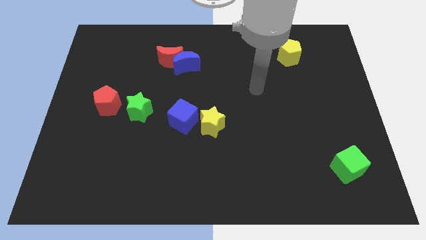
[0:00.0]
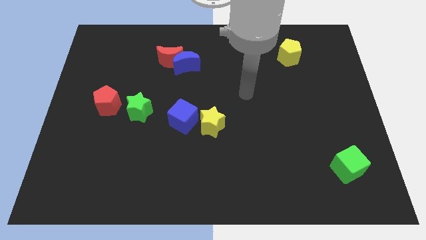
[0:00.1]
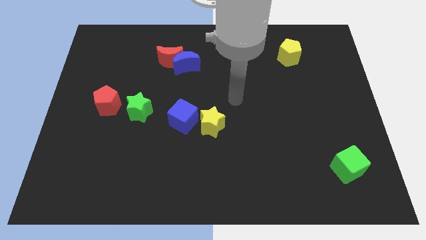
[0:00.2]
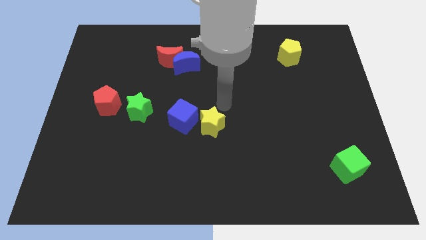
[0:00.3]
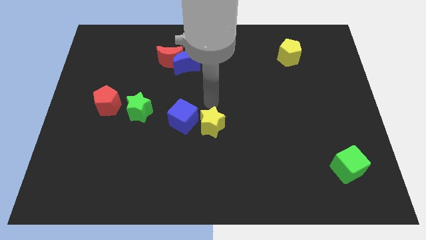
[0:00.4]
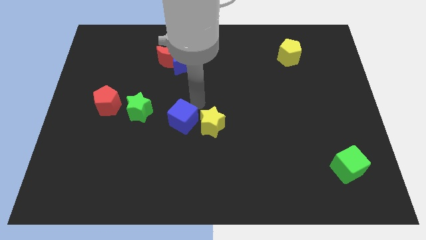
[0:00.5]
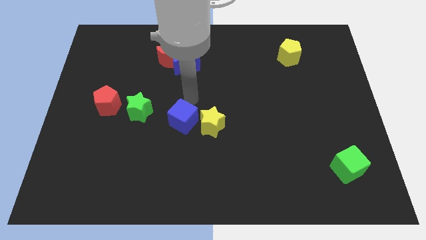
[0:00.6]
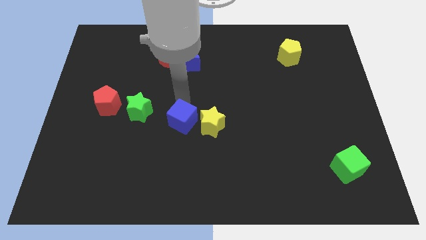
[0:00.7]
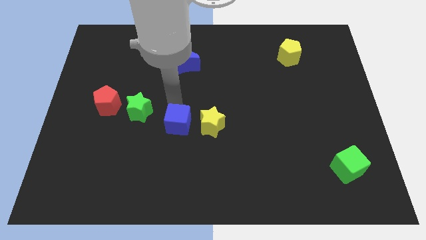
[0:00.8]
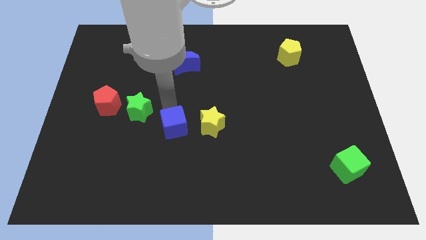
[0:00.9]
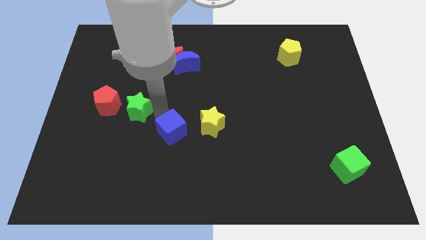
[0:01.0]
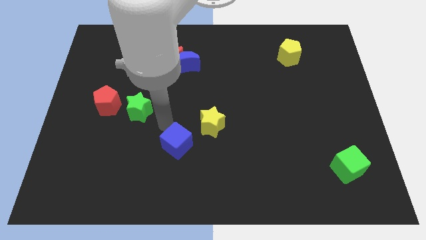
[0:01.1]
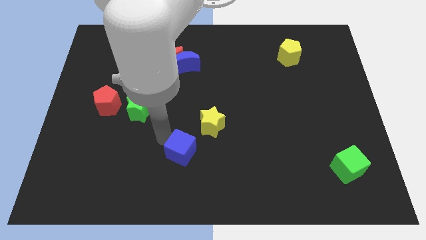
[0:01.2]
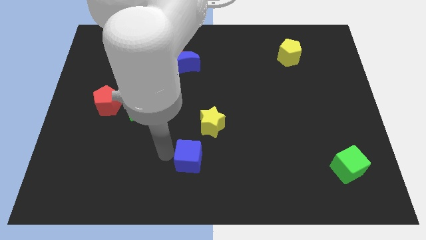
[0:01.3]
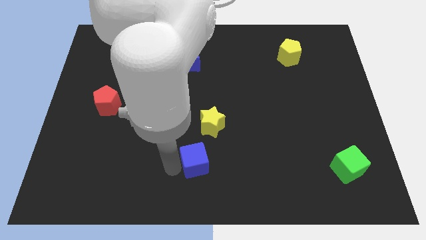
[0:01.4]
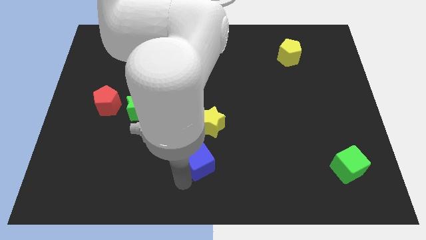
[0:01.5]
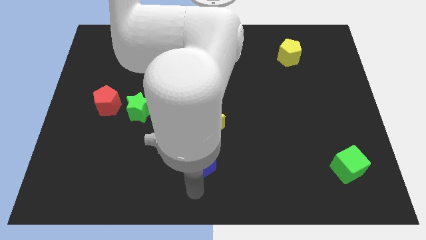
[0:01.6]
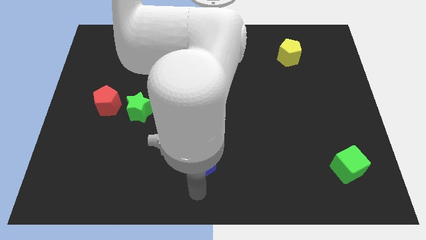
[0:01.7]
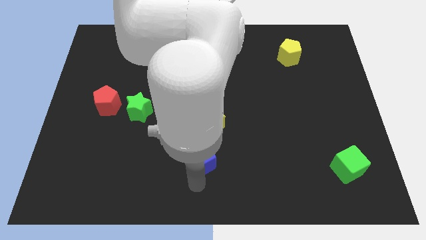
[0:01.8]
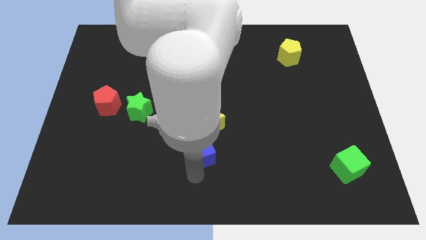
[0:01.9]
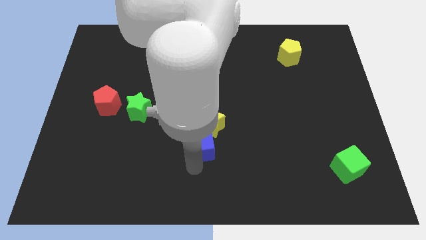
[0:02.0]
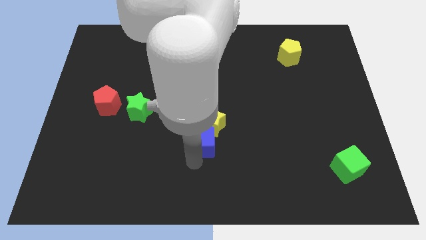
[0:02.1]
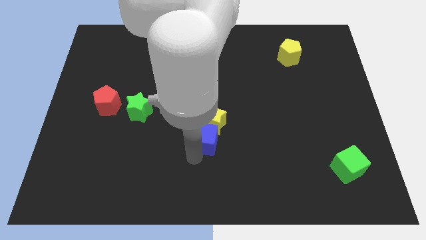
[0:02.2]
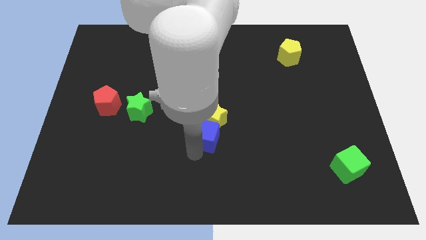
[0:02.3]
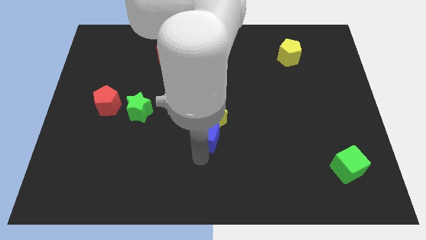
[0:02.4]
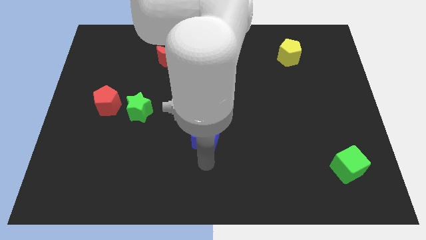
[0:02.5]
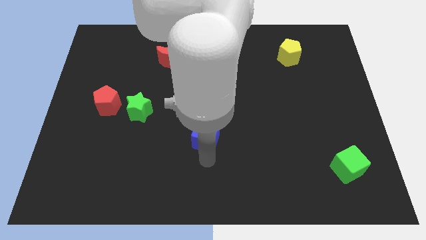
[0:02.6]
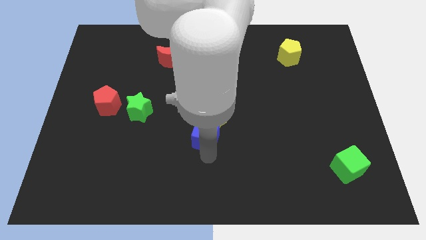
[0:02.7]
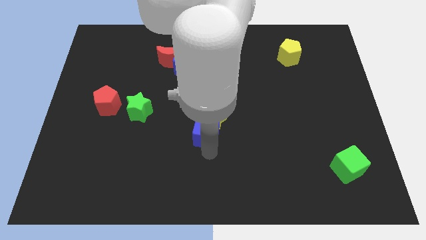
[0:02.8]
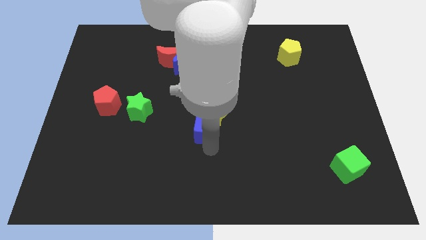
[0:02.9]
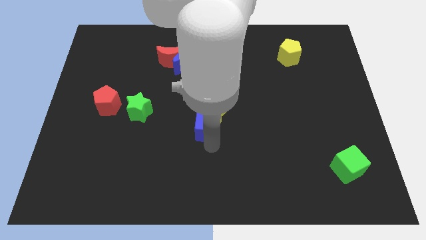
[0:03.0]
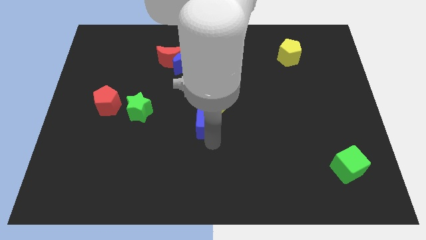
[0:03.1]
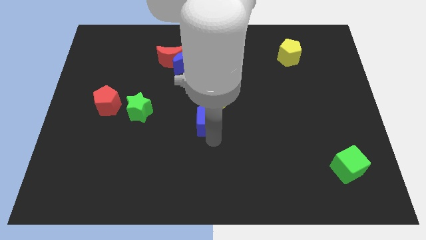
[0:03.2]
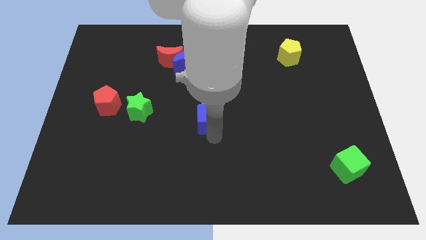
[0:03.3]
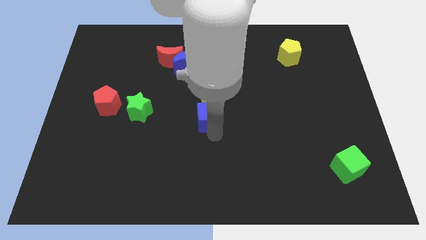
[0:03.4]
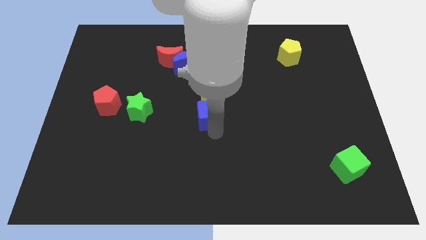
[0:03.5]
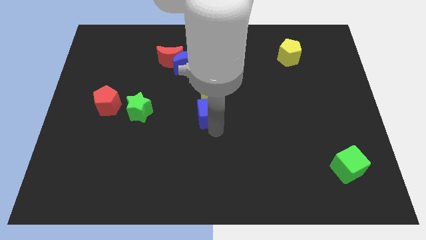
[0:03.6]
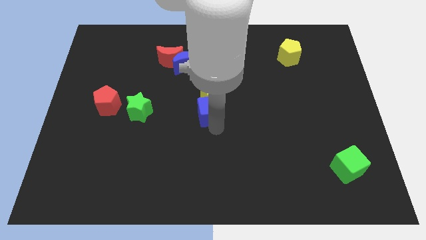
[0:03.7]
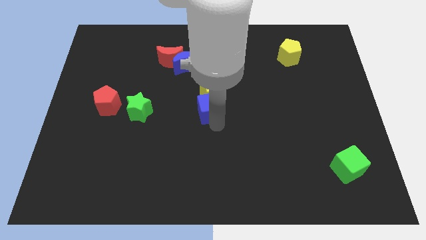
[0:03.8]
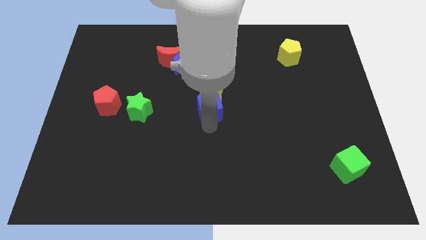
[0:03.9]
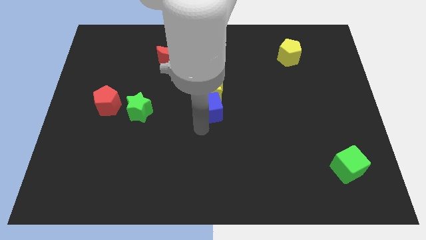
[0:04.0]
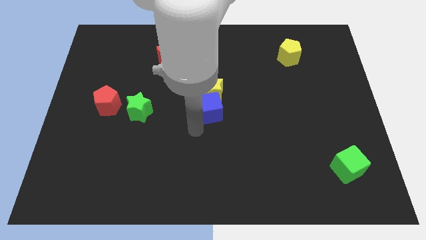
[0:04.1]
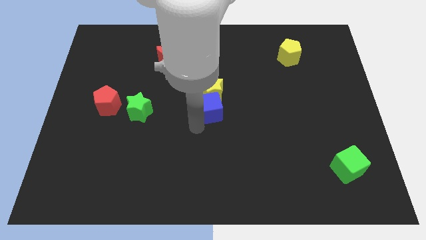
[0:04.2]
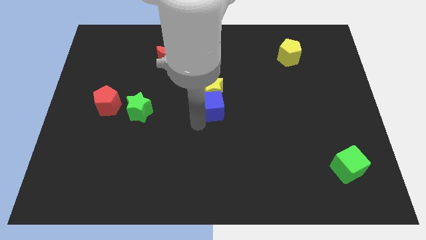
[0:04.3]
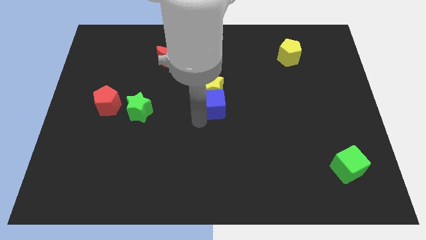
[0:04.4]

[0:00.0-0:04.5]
slightly push the blue cube diagonally up and to the right

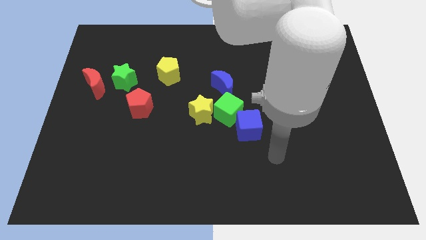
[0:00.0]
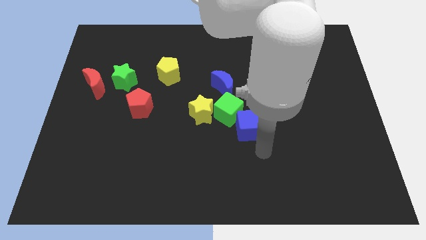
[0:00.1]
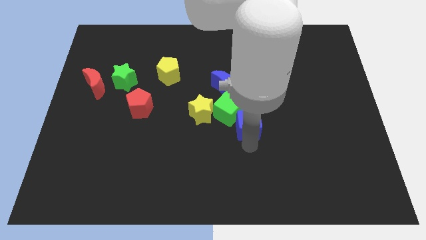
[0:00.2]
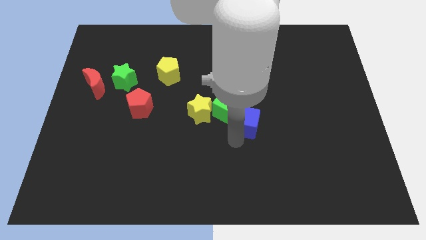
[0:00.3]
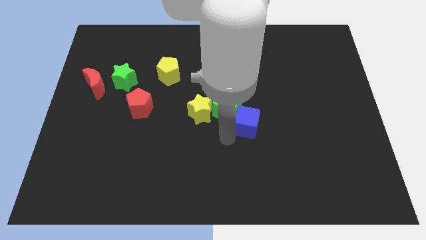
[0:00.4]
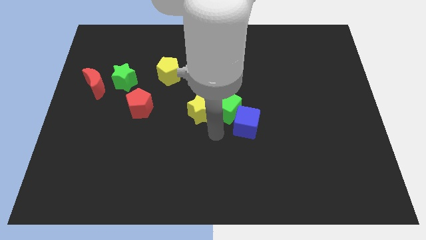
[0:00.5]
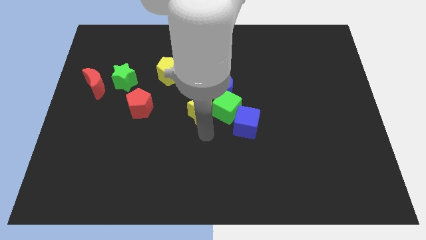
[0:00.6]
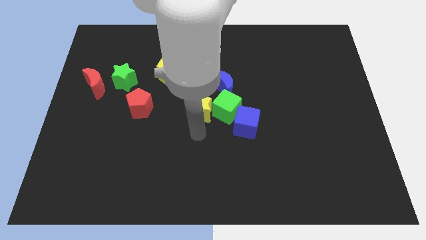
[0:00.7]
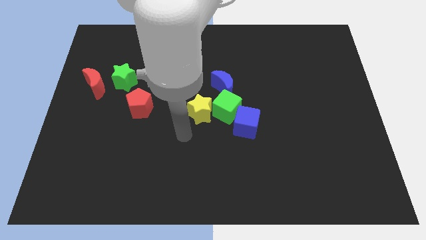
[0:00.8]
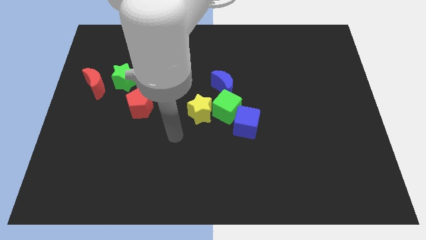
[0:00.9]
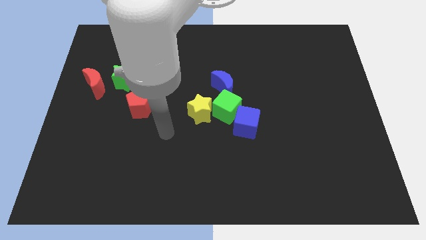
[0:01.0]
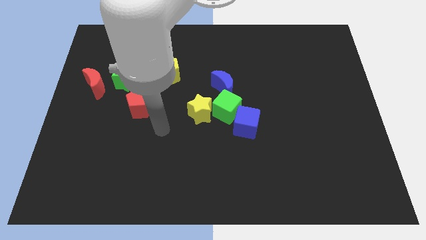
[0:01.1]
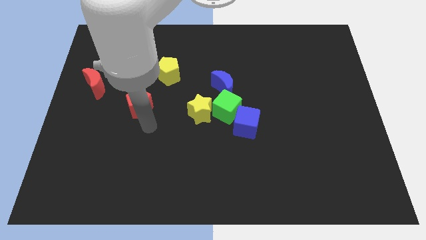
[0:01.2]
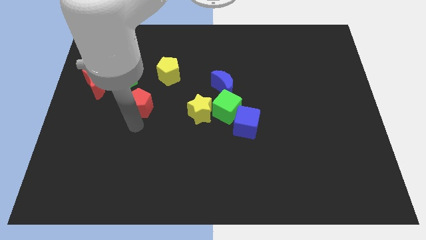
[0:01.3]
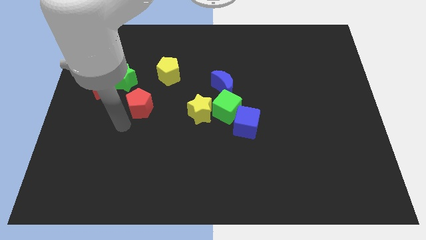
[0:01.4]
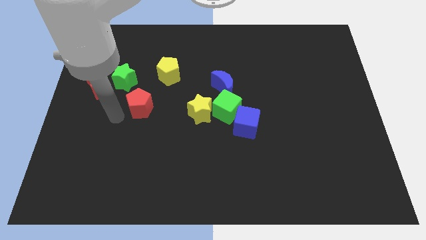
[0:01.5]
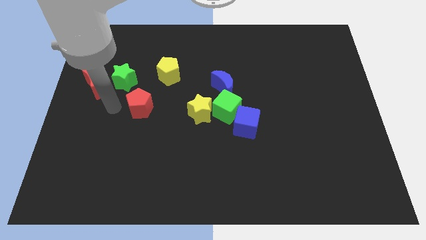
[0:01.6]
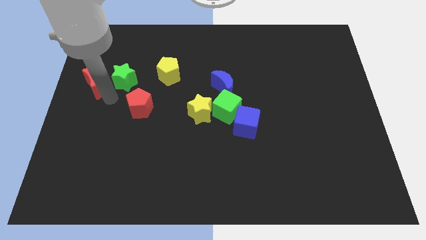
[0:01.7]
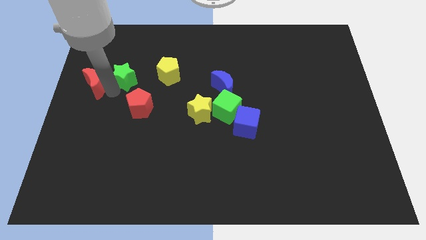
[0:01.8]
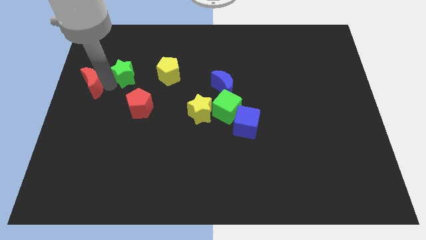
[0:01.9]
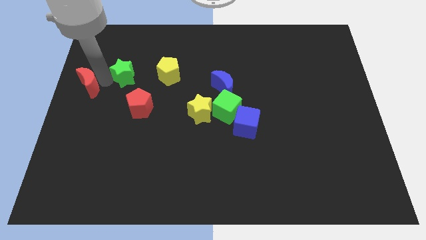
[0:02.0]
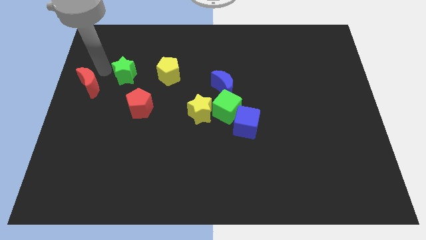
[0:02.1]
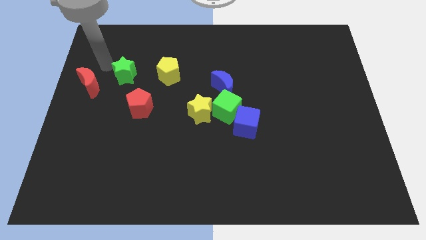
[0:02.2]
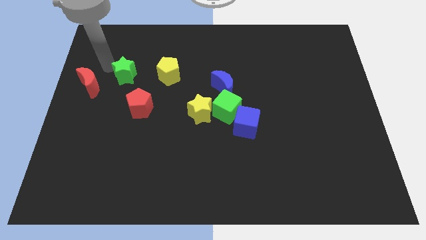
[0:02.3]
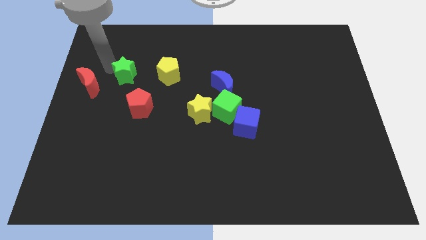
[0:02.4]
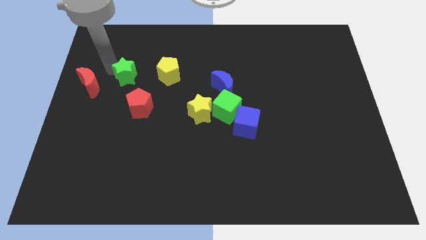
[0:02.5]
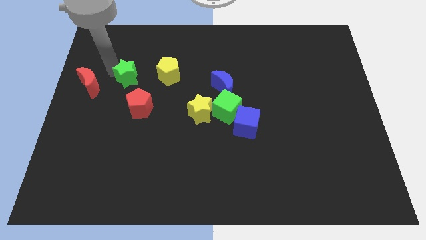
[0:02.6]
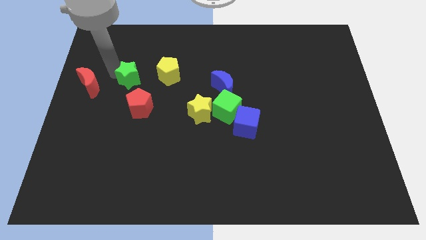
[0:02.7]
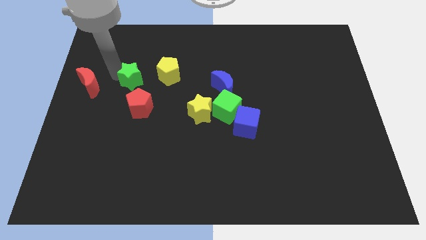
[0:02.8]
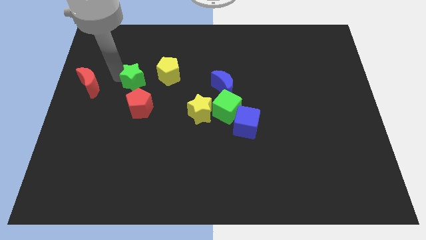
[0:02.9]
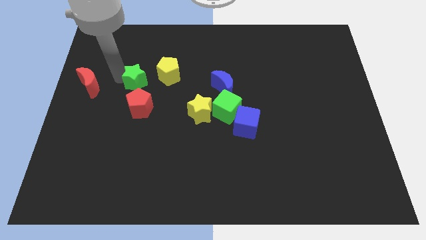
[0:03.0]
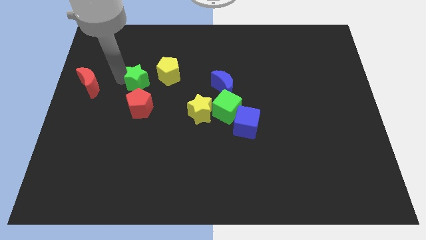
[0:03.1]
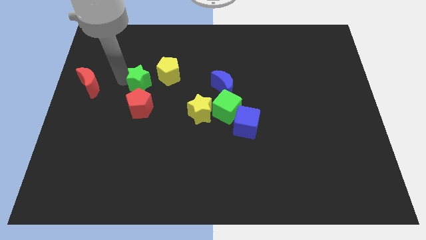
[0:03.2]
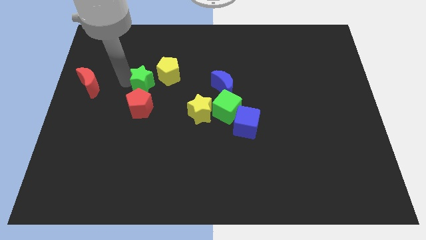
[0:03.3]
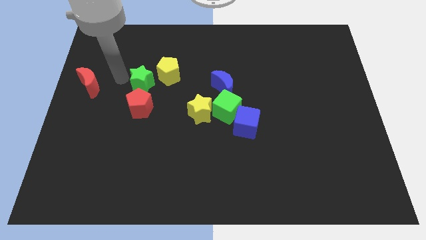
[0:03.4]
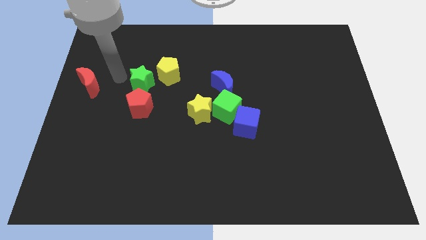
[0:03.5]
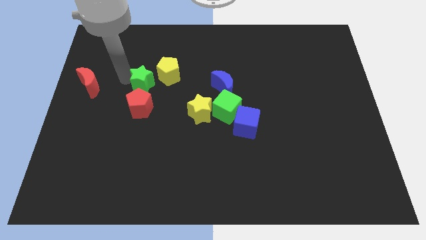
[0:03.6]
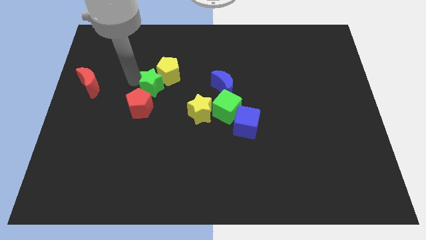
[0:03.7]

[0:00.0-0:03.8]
move the green star to the right a bit
